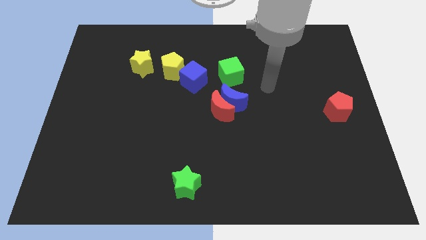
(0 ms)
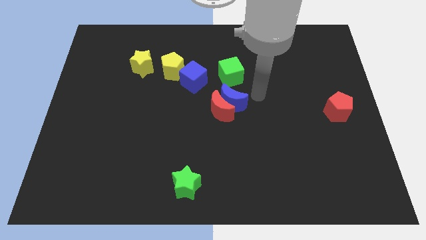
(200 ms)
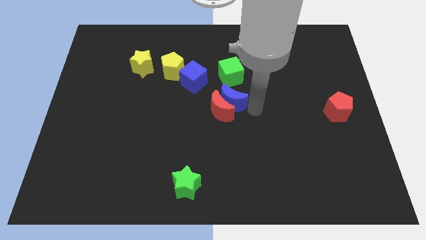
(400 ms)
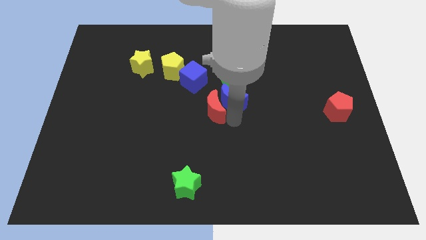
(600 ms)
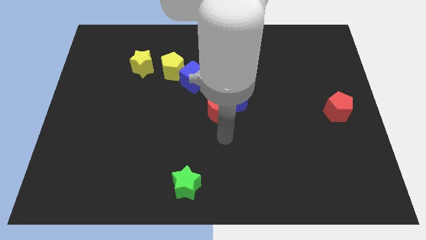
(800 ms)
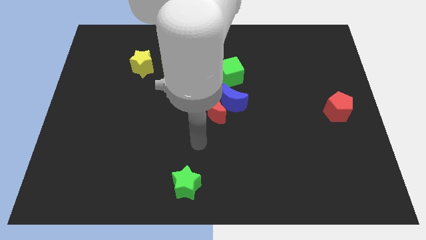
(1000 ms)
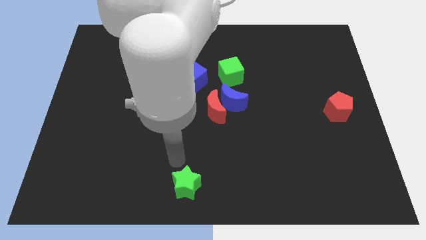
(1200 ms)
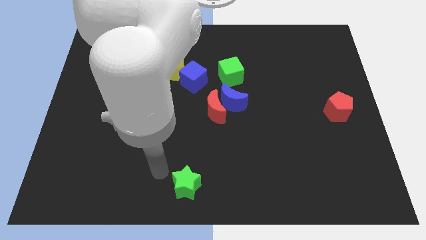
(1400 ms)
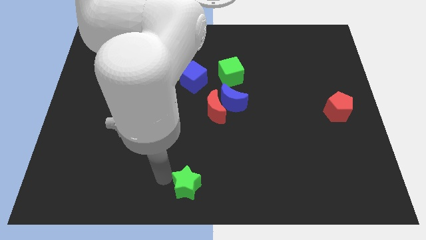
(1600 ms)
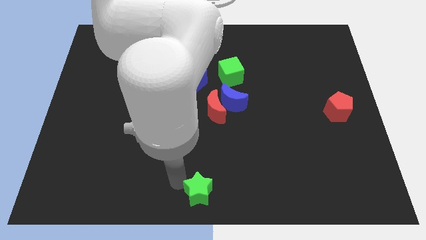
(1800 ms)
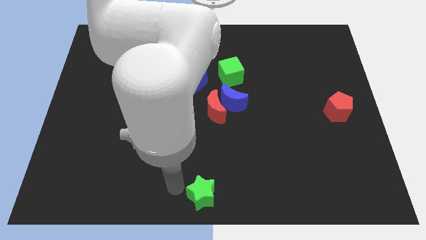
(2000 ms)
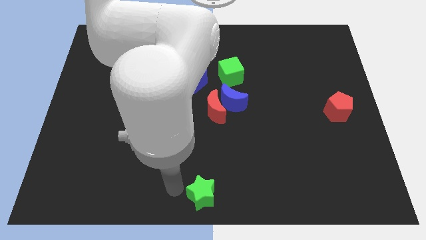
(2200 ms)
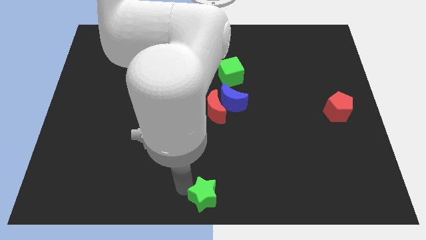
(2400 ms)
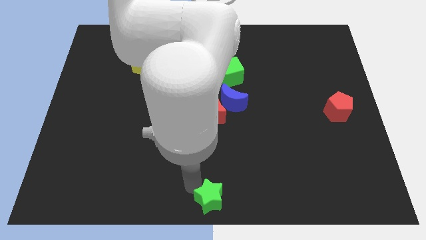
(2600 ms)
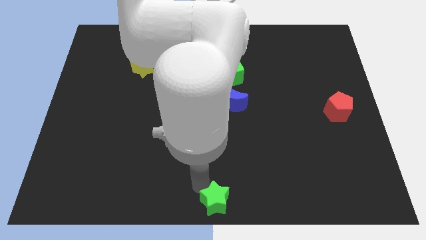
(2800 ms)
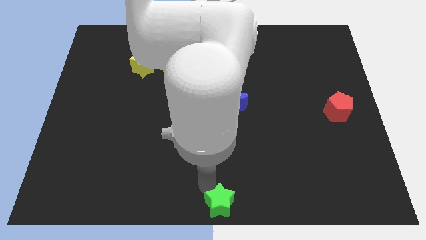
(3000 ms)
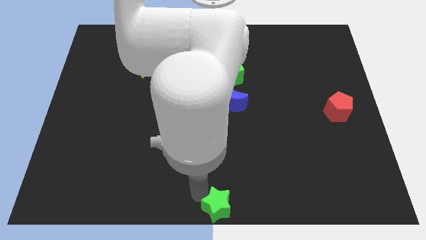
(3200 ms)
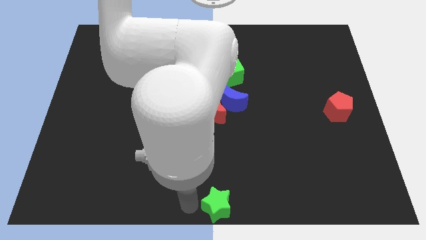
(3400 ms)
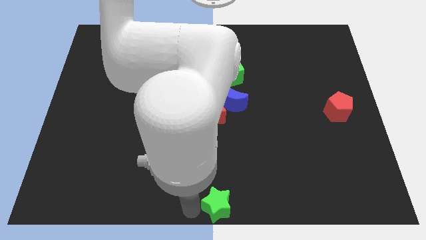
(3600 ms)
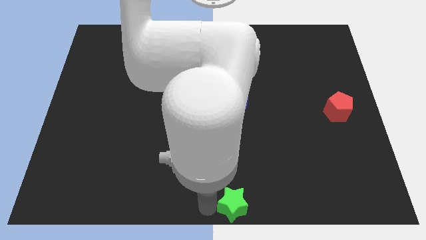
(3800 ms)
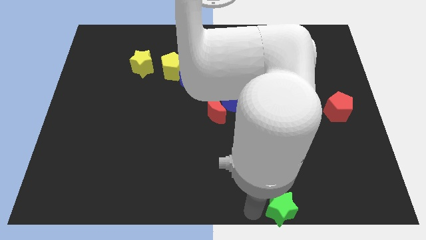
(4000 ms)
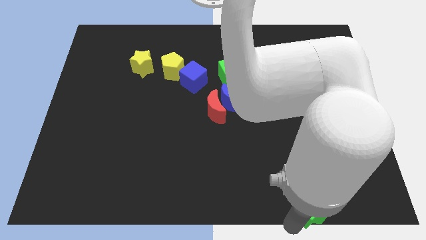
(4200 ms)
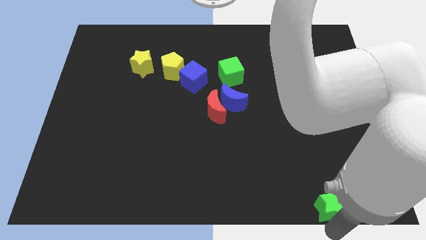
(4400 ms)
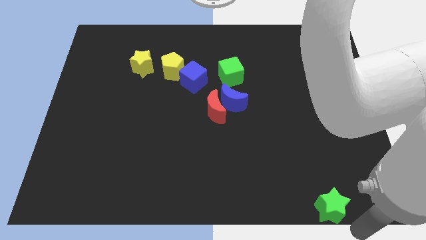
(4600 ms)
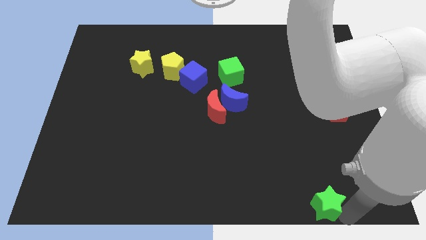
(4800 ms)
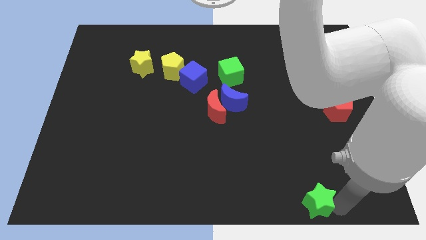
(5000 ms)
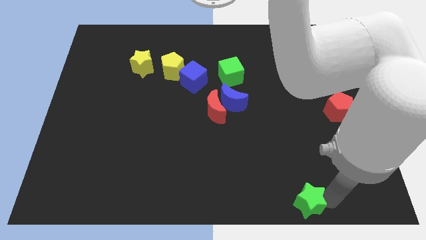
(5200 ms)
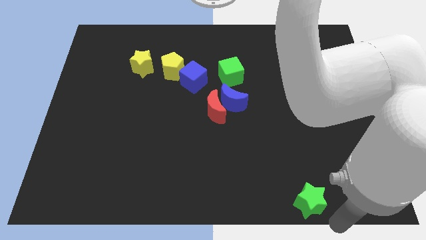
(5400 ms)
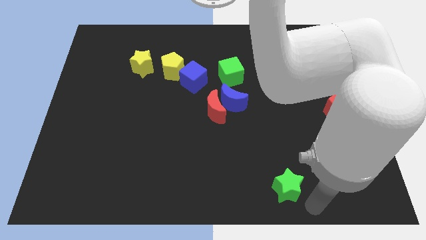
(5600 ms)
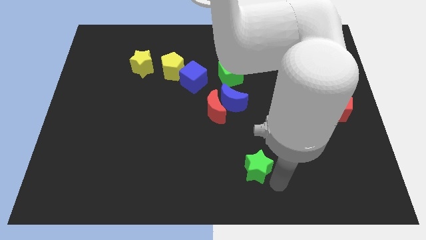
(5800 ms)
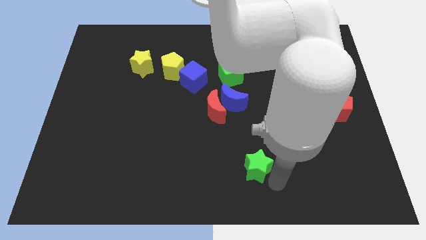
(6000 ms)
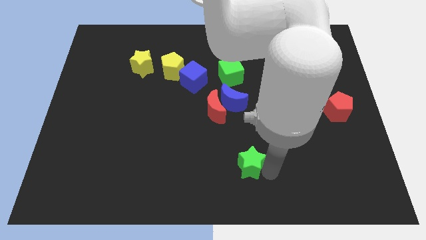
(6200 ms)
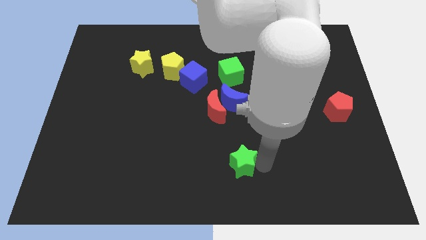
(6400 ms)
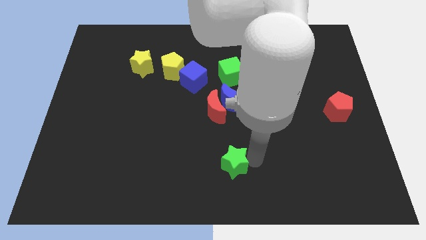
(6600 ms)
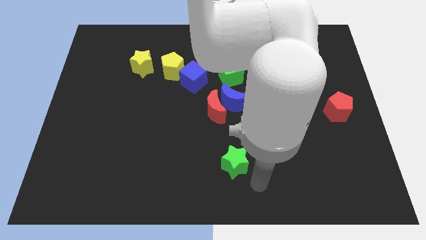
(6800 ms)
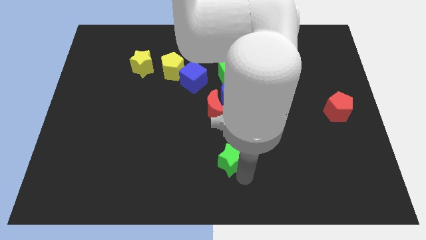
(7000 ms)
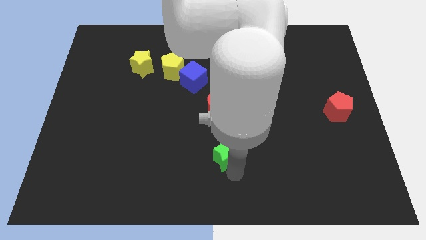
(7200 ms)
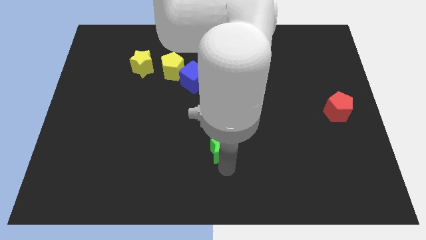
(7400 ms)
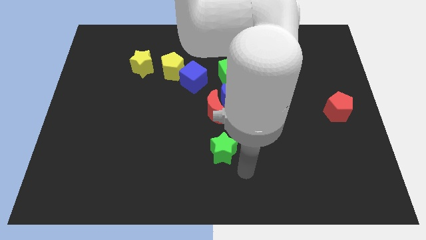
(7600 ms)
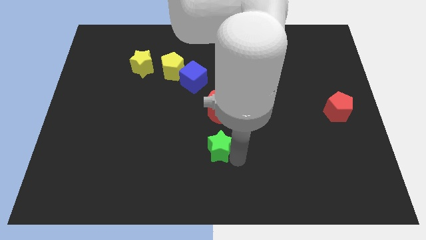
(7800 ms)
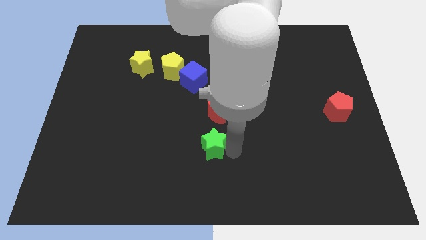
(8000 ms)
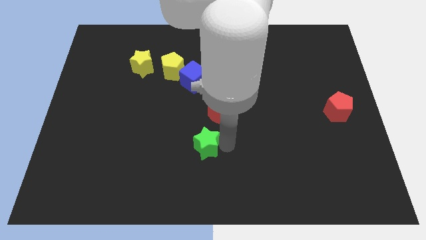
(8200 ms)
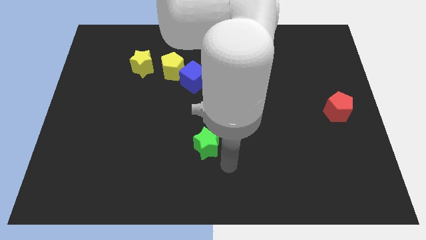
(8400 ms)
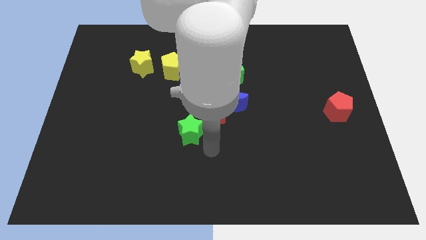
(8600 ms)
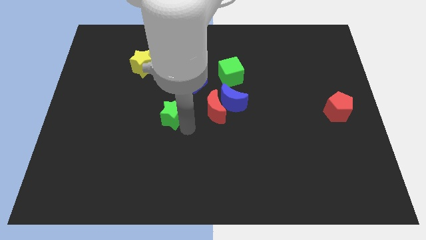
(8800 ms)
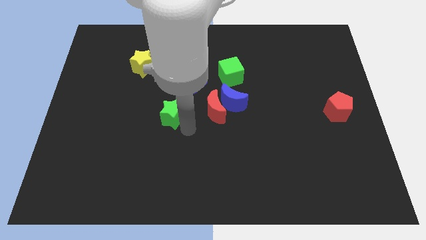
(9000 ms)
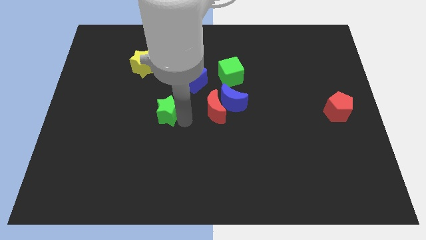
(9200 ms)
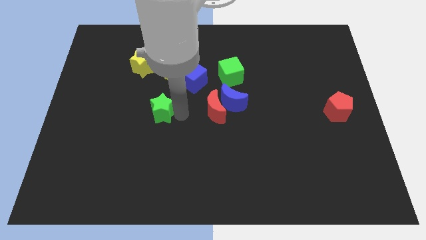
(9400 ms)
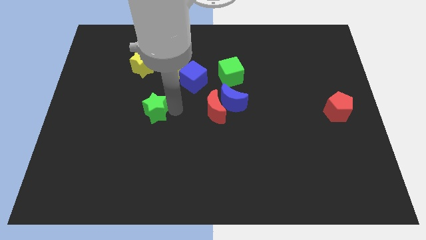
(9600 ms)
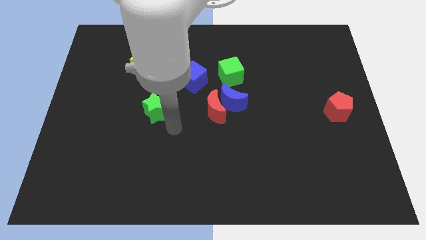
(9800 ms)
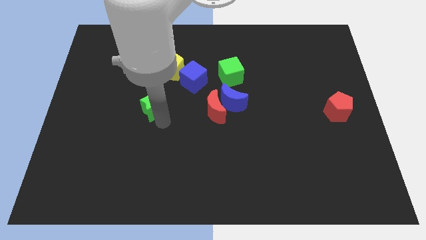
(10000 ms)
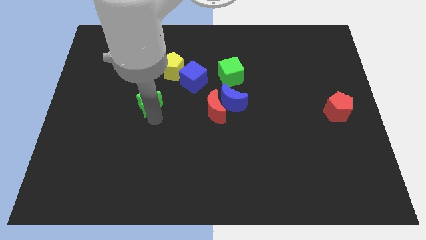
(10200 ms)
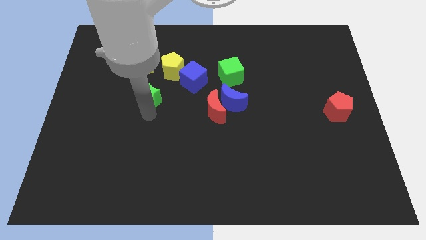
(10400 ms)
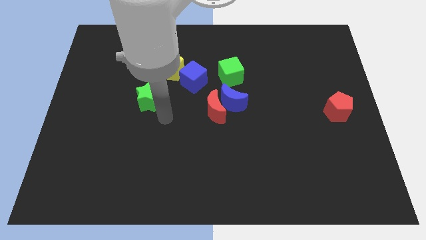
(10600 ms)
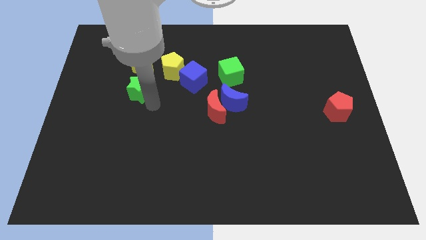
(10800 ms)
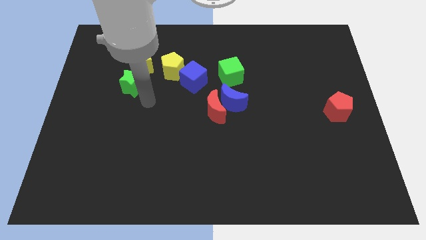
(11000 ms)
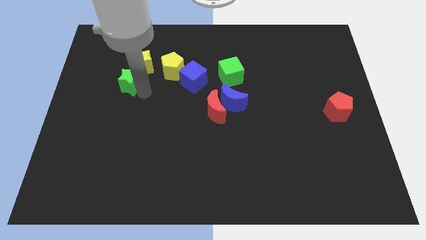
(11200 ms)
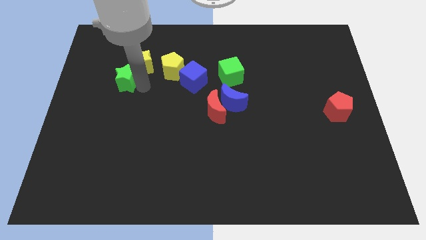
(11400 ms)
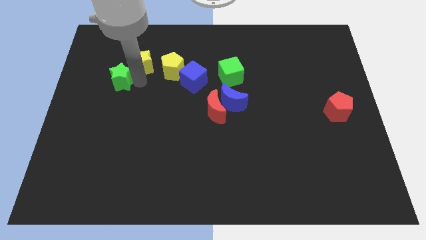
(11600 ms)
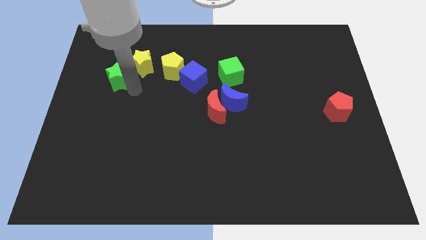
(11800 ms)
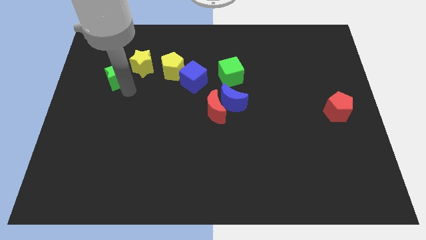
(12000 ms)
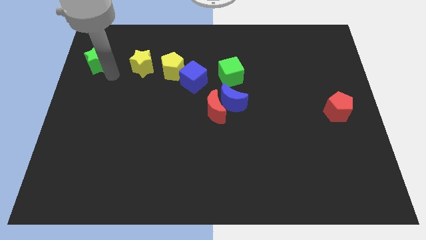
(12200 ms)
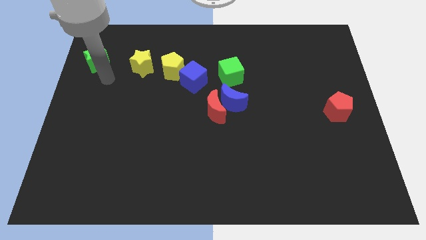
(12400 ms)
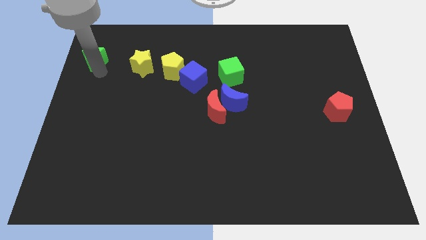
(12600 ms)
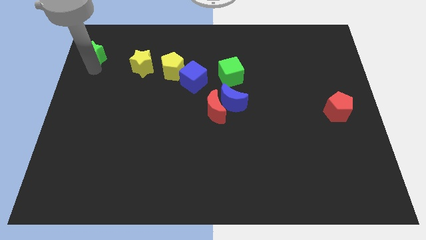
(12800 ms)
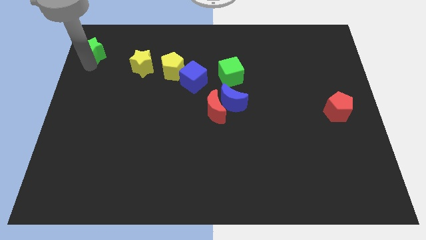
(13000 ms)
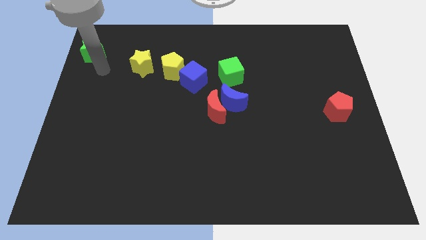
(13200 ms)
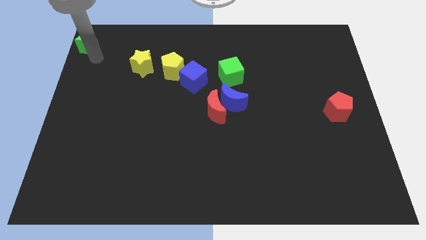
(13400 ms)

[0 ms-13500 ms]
move the green star to the top left of the board

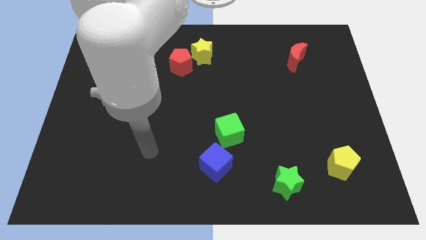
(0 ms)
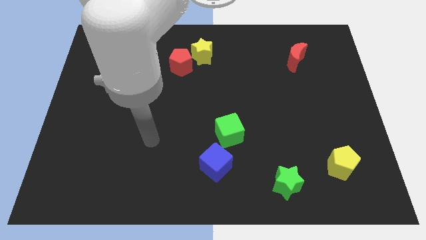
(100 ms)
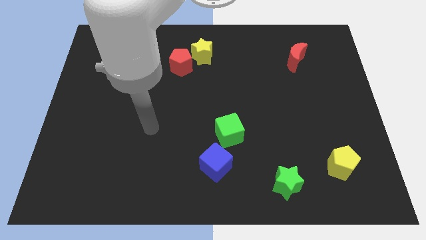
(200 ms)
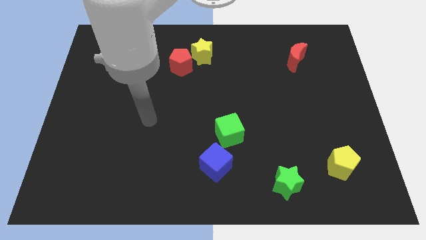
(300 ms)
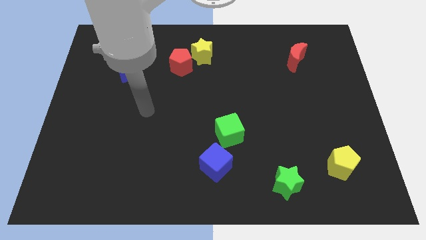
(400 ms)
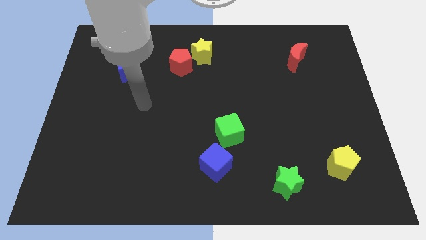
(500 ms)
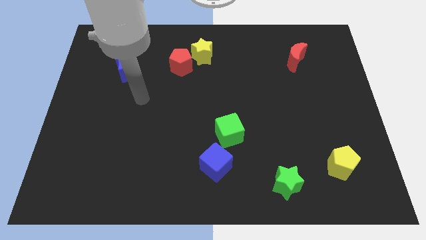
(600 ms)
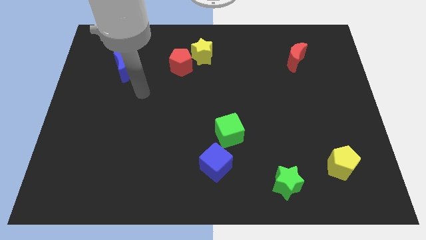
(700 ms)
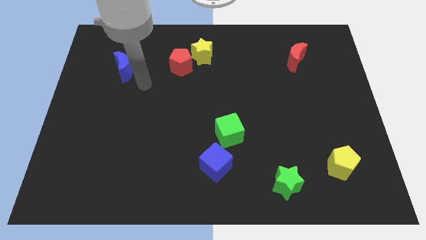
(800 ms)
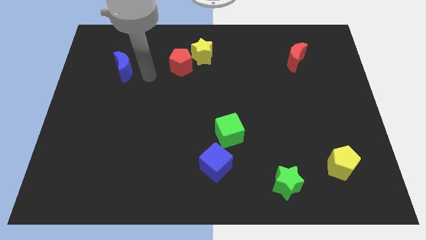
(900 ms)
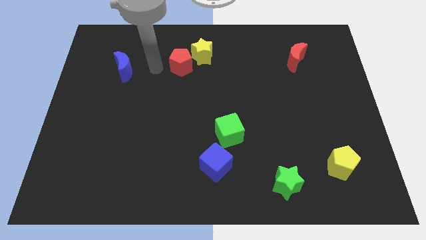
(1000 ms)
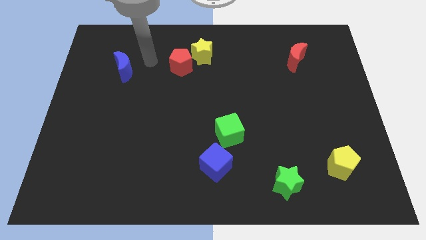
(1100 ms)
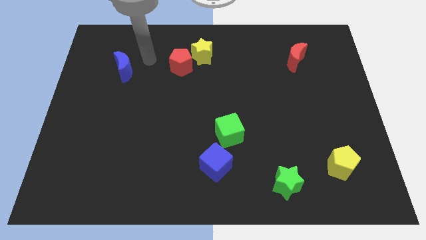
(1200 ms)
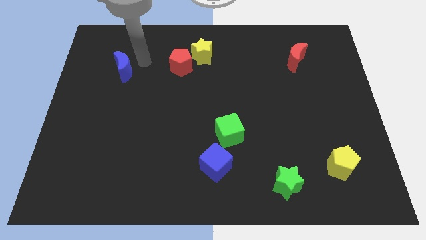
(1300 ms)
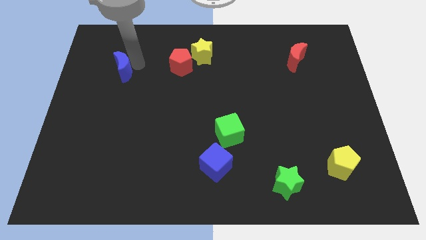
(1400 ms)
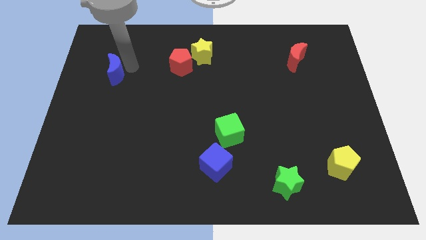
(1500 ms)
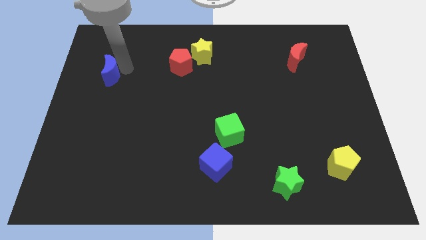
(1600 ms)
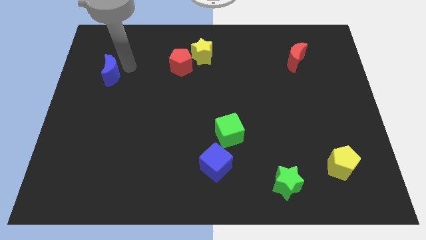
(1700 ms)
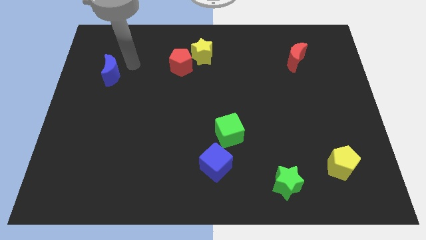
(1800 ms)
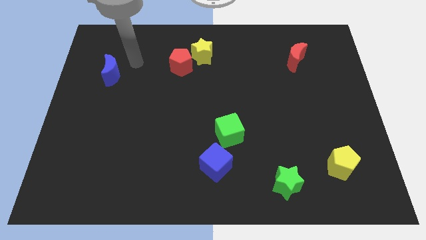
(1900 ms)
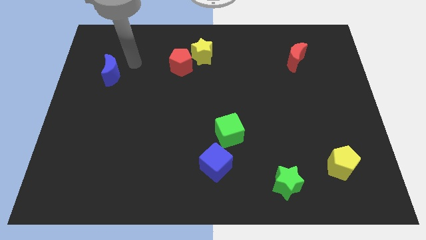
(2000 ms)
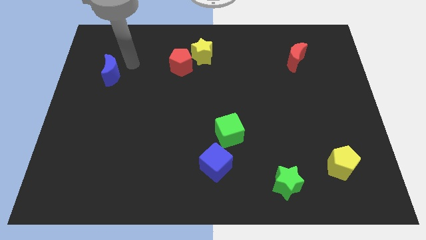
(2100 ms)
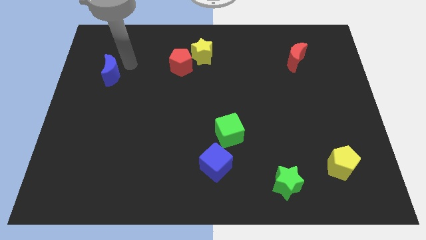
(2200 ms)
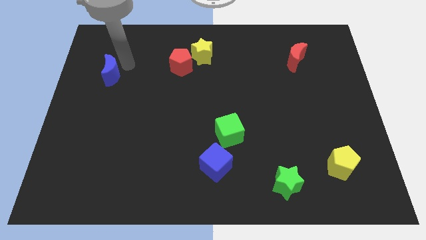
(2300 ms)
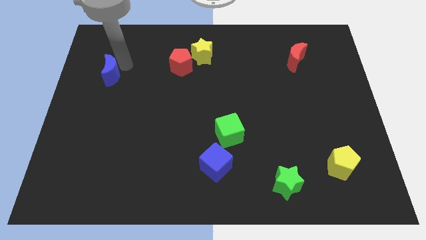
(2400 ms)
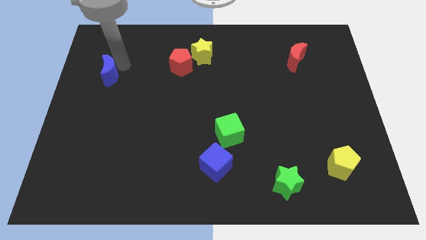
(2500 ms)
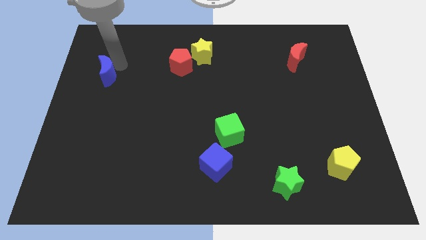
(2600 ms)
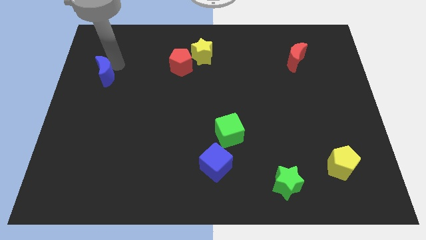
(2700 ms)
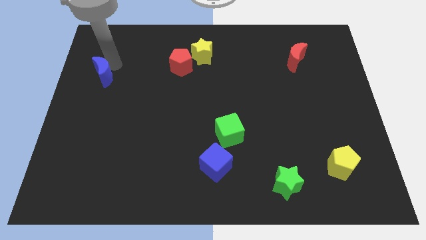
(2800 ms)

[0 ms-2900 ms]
slide the blue moon to the center left
